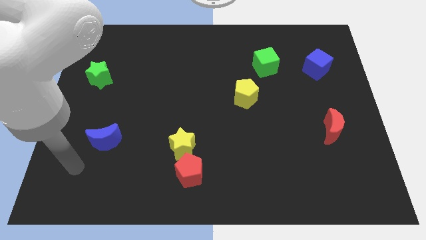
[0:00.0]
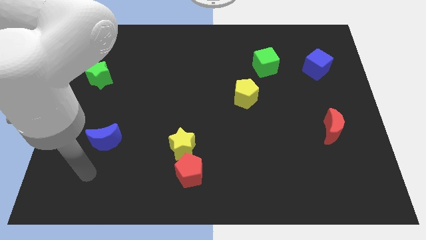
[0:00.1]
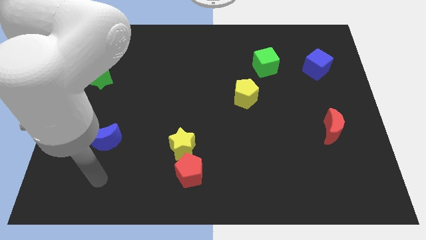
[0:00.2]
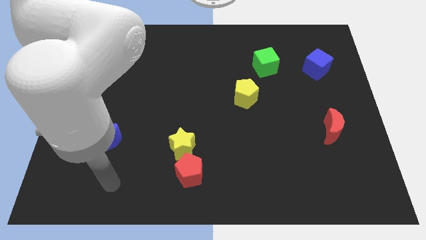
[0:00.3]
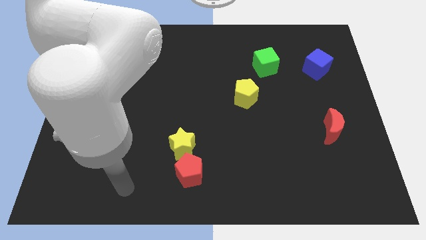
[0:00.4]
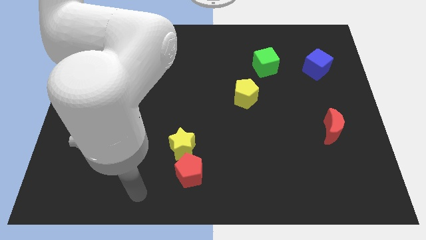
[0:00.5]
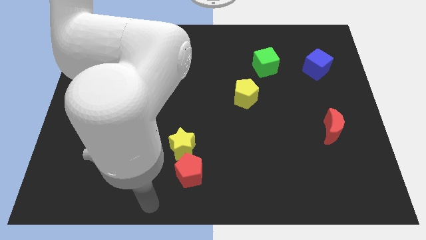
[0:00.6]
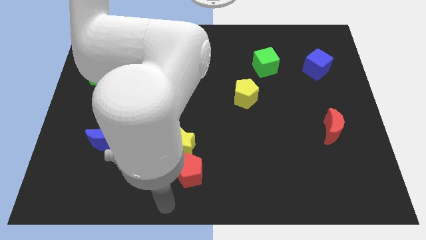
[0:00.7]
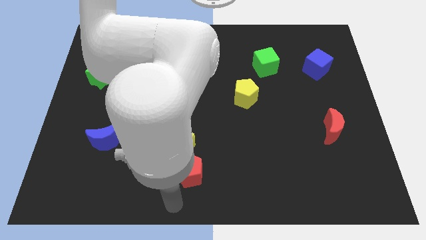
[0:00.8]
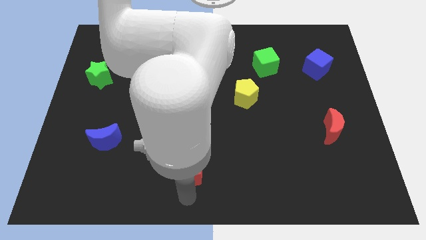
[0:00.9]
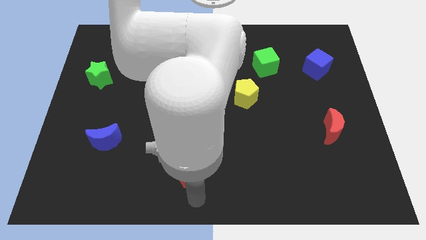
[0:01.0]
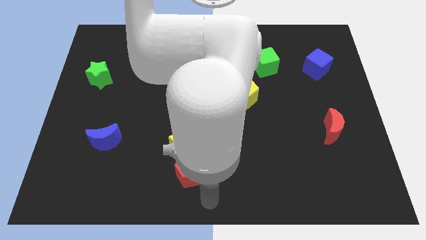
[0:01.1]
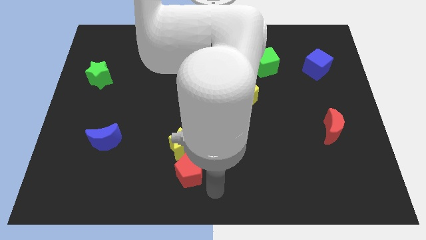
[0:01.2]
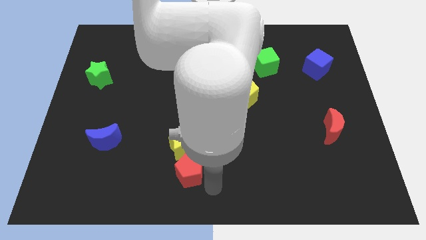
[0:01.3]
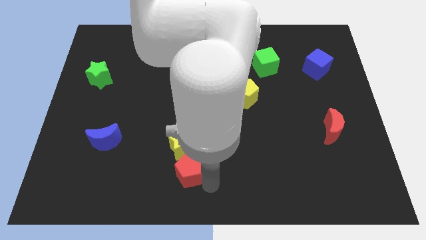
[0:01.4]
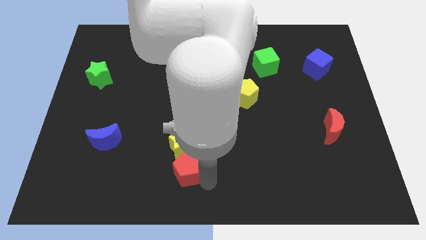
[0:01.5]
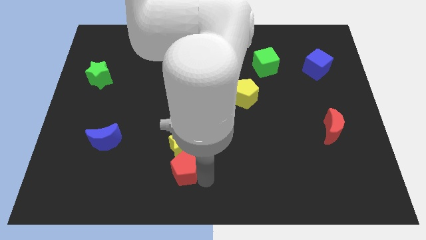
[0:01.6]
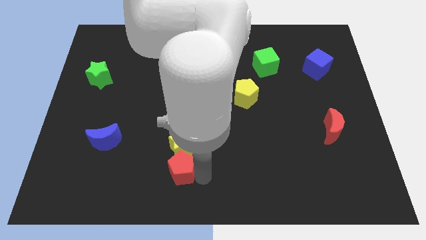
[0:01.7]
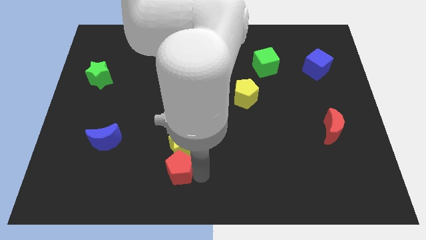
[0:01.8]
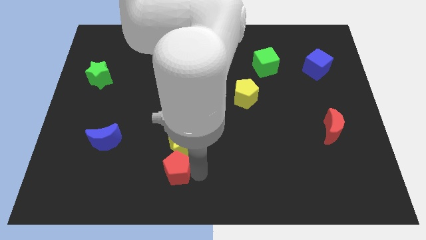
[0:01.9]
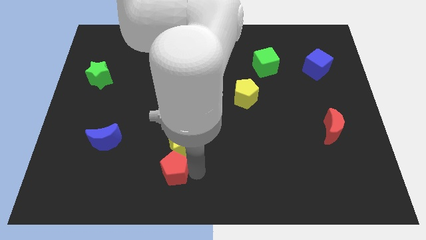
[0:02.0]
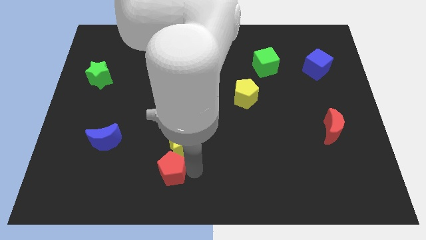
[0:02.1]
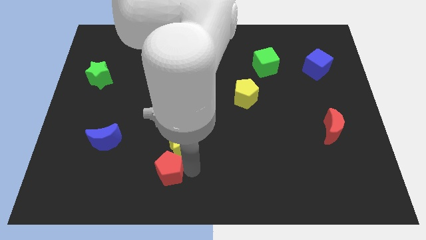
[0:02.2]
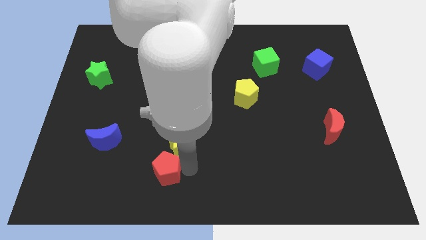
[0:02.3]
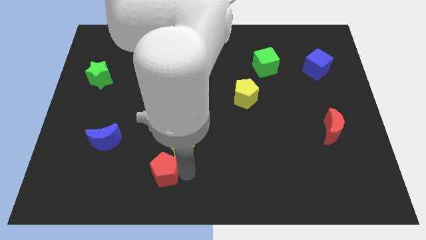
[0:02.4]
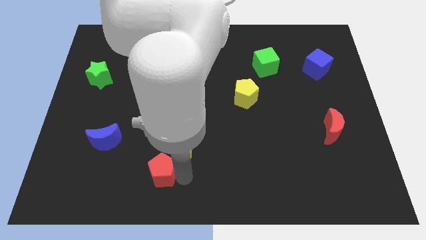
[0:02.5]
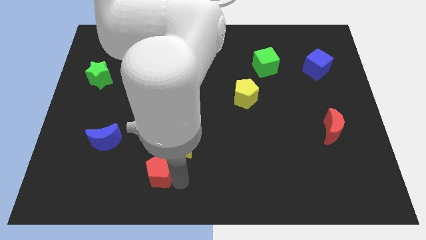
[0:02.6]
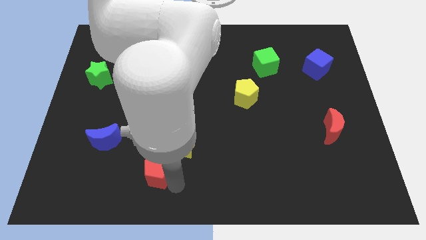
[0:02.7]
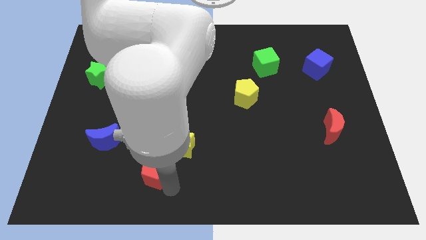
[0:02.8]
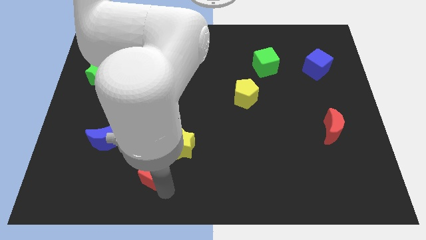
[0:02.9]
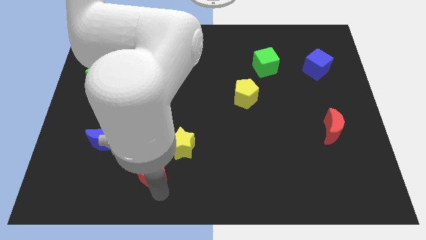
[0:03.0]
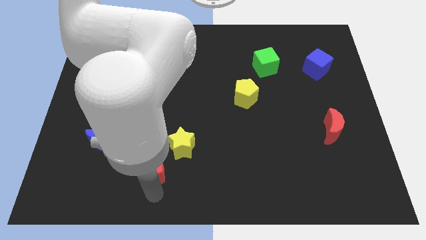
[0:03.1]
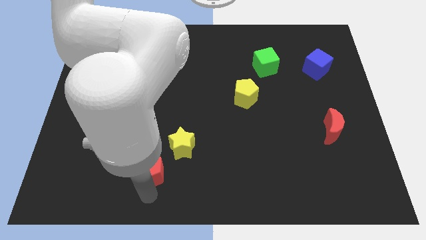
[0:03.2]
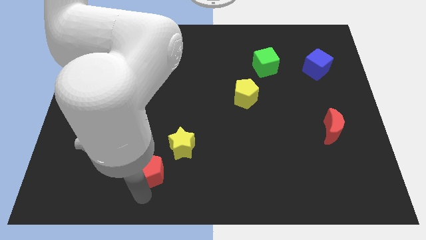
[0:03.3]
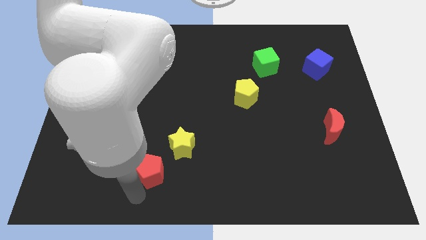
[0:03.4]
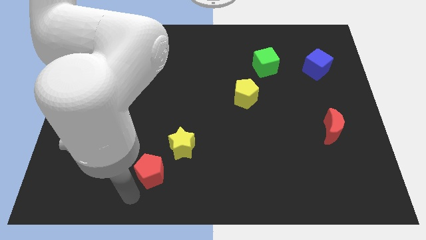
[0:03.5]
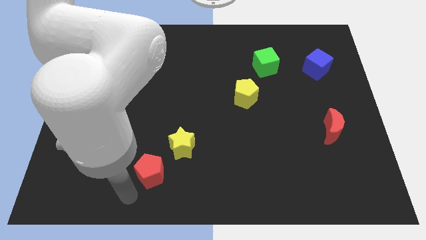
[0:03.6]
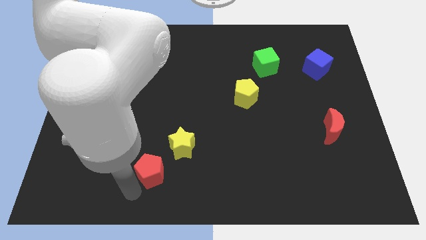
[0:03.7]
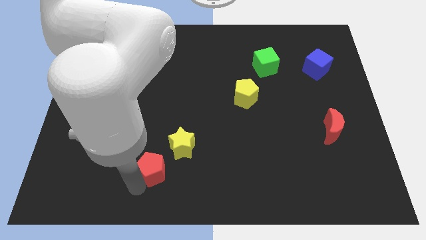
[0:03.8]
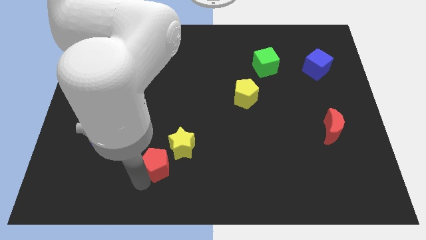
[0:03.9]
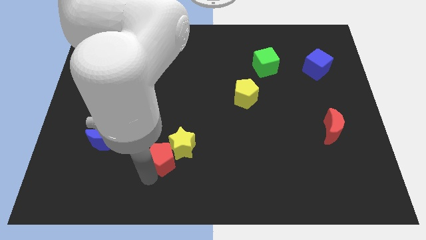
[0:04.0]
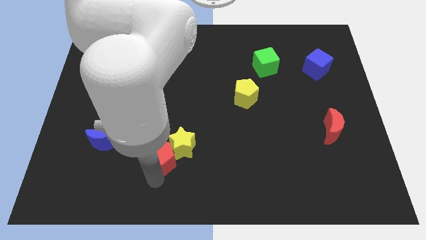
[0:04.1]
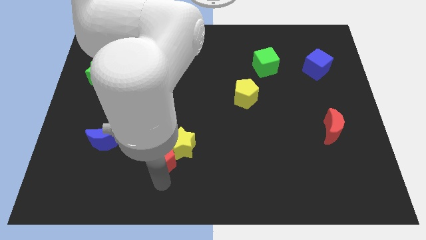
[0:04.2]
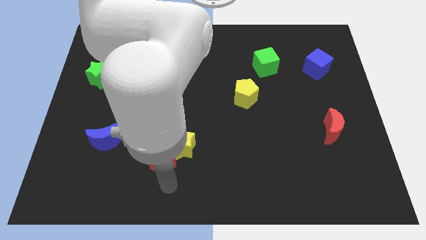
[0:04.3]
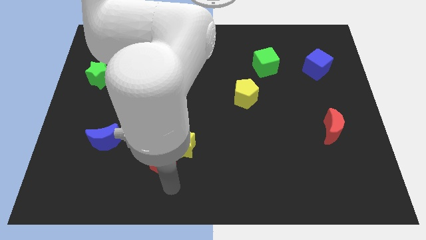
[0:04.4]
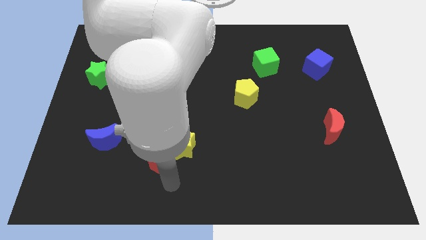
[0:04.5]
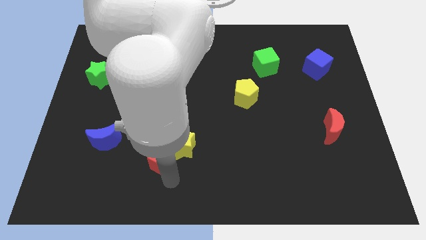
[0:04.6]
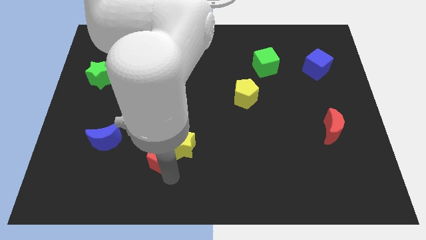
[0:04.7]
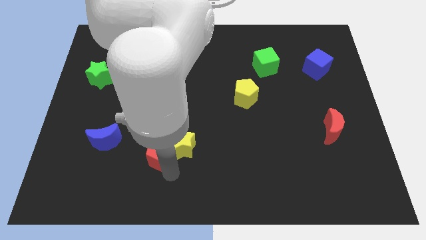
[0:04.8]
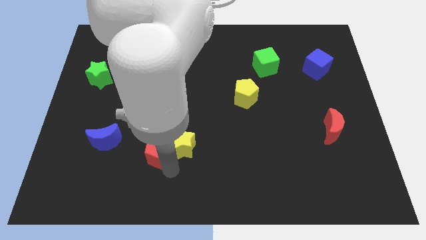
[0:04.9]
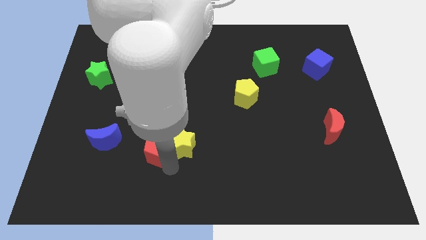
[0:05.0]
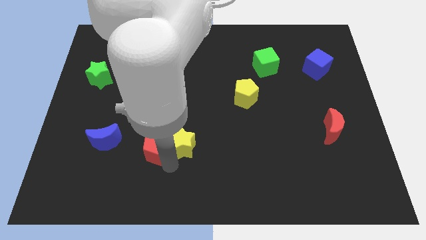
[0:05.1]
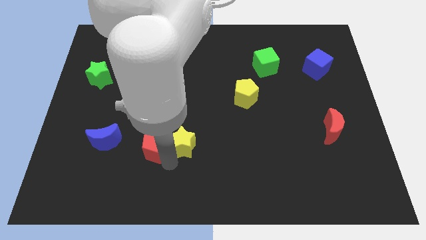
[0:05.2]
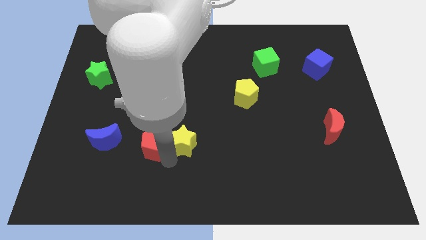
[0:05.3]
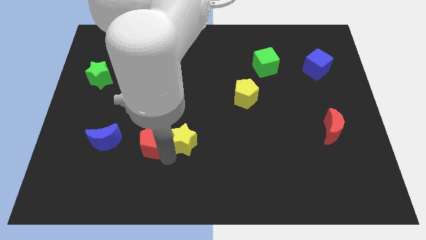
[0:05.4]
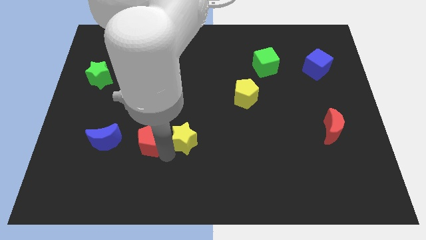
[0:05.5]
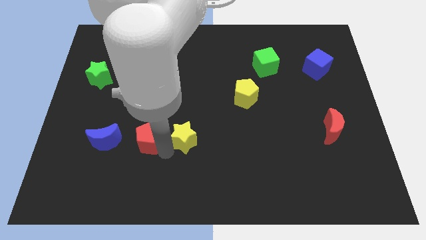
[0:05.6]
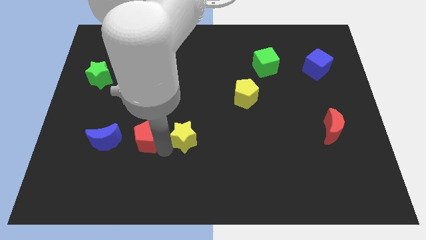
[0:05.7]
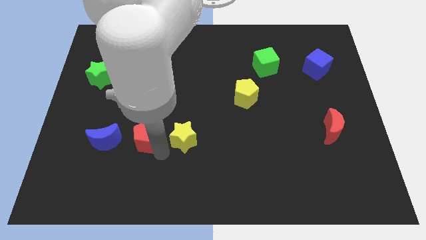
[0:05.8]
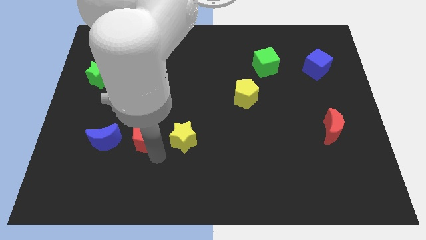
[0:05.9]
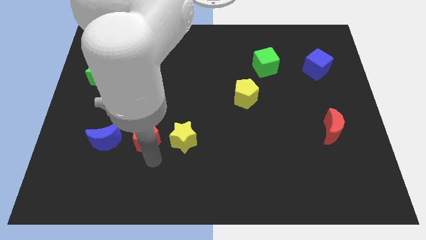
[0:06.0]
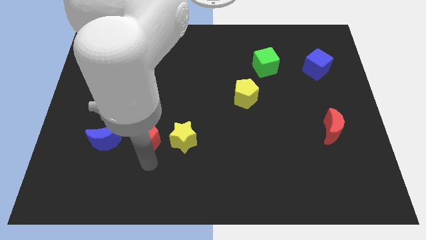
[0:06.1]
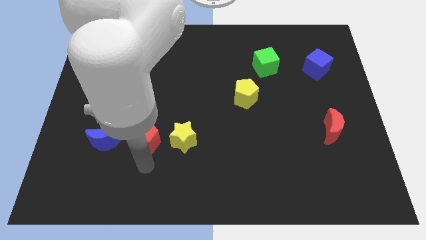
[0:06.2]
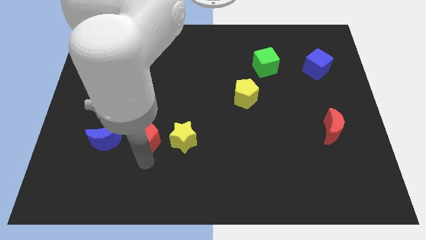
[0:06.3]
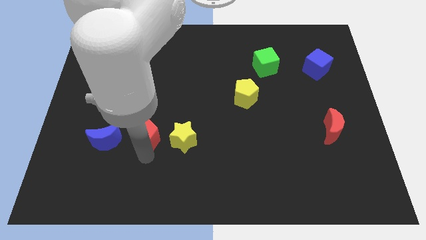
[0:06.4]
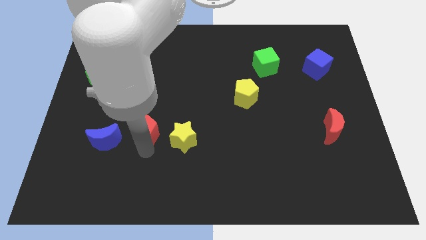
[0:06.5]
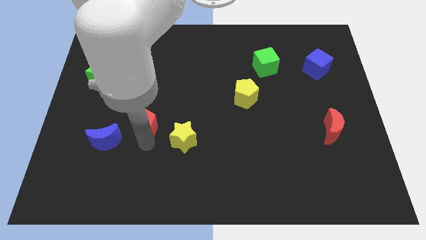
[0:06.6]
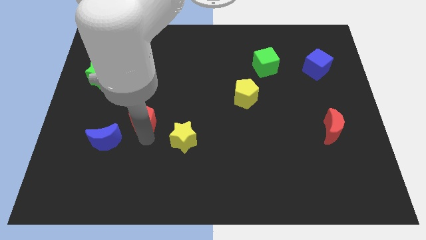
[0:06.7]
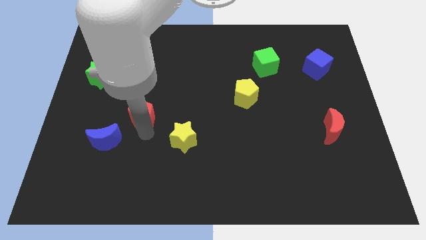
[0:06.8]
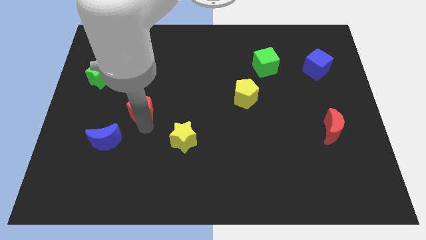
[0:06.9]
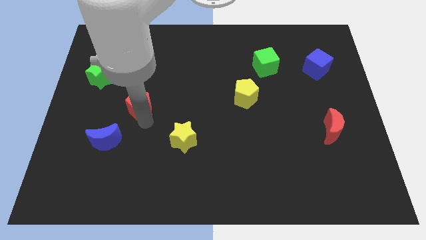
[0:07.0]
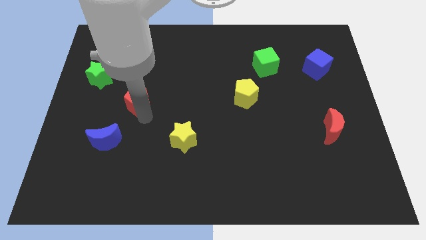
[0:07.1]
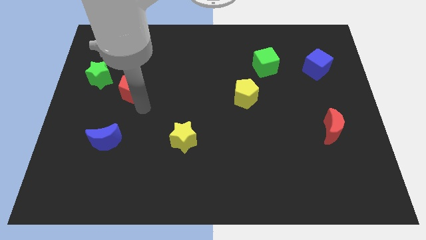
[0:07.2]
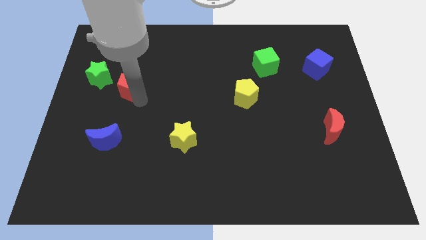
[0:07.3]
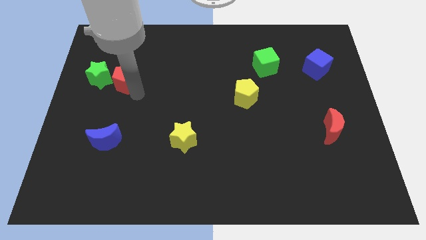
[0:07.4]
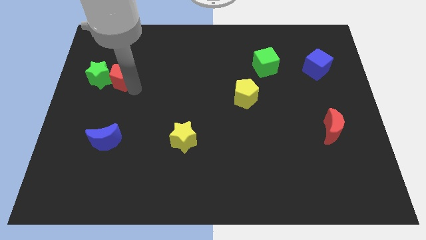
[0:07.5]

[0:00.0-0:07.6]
slide the red pentagon to the green star
